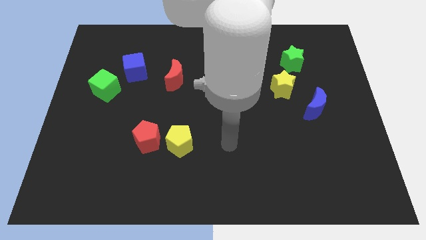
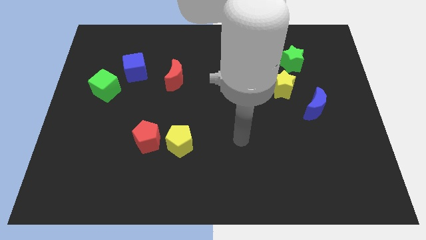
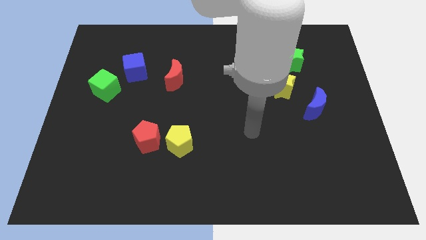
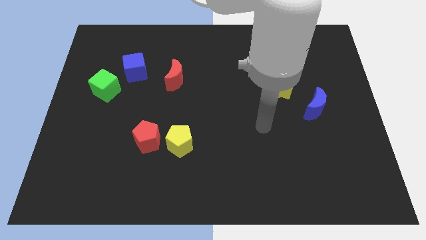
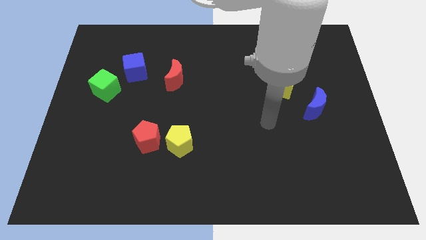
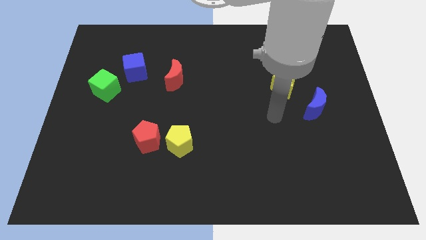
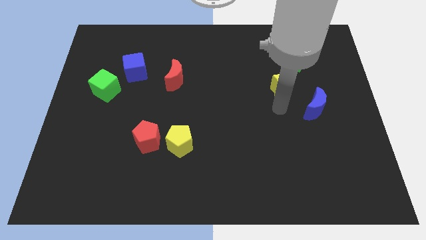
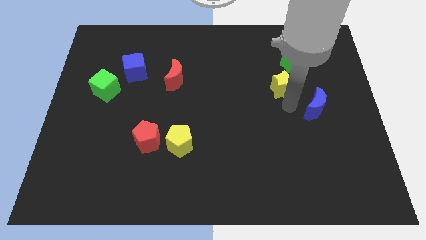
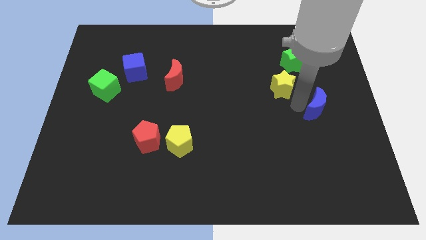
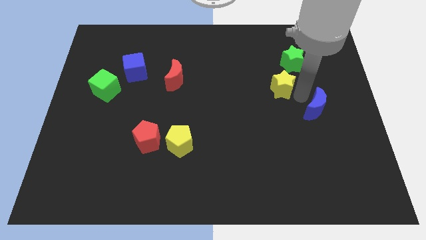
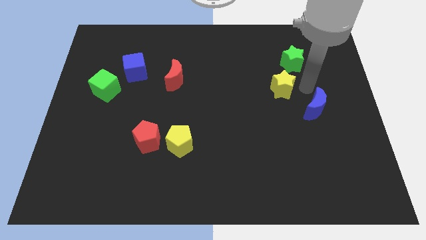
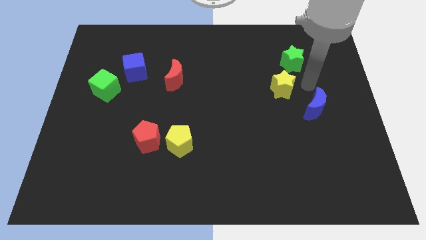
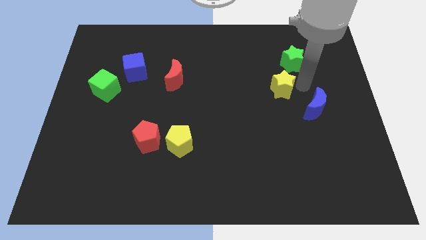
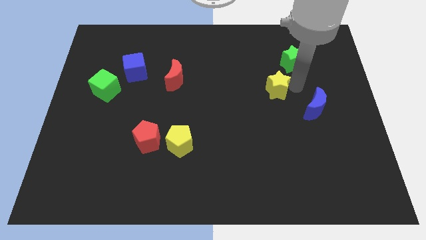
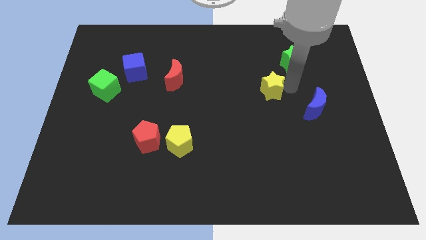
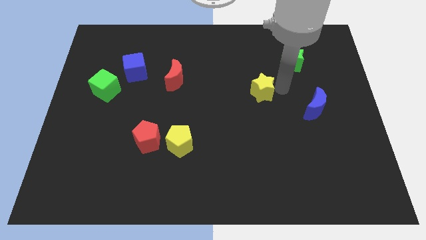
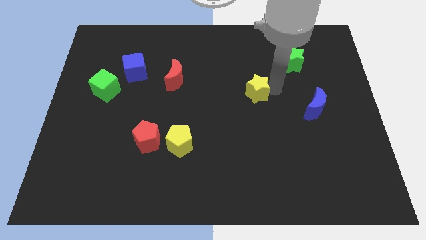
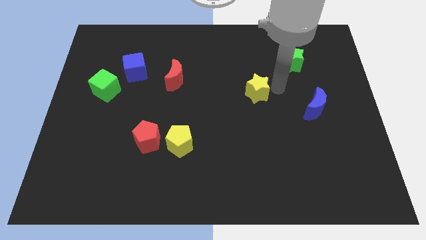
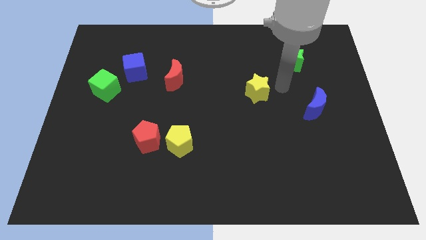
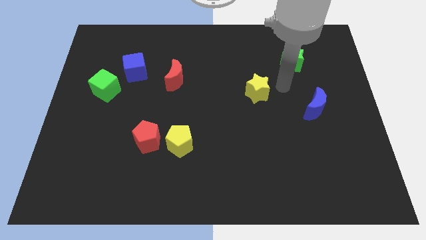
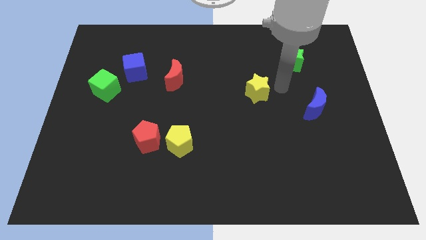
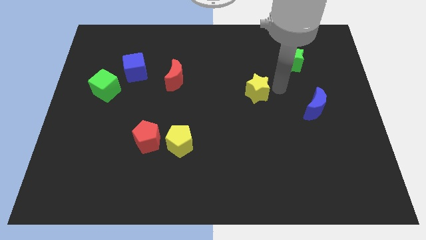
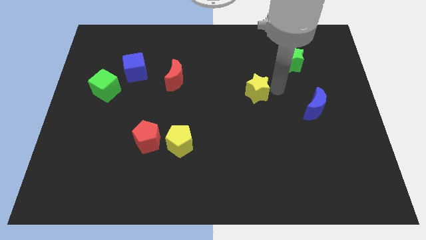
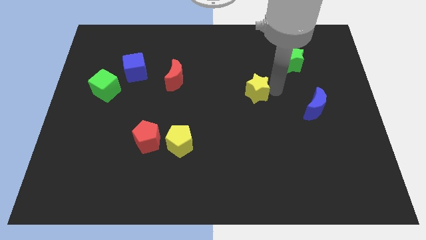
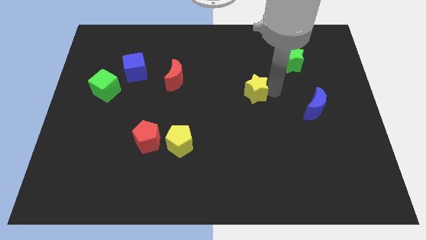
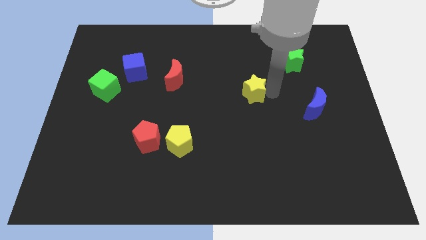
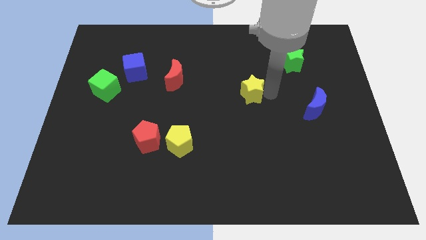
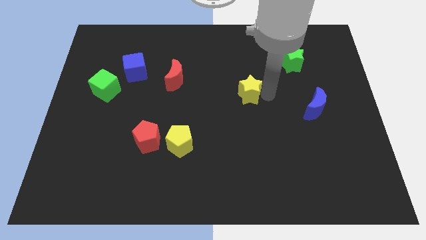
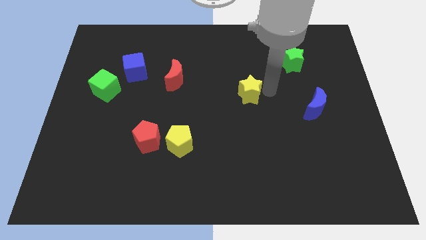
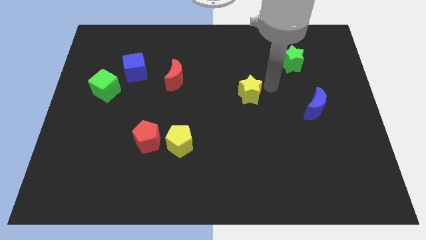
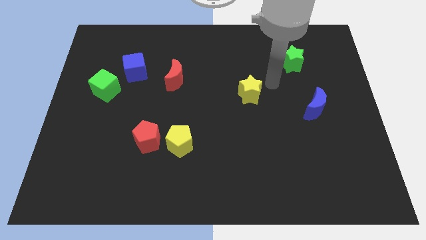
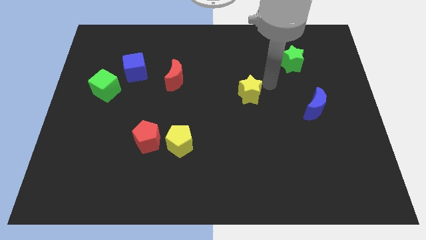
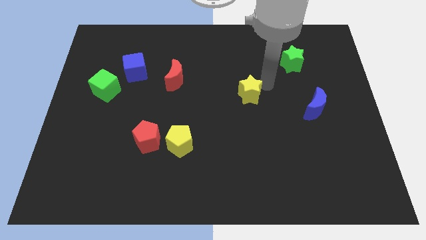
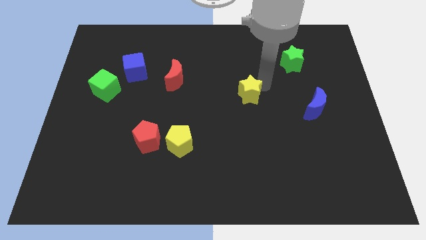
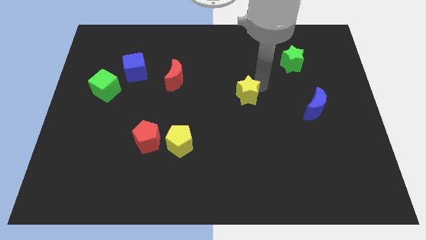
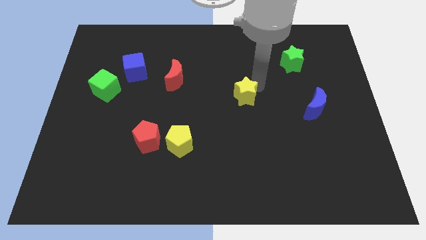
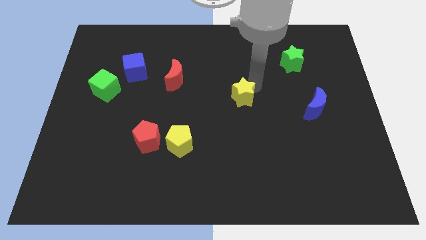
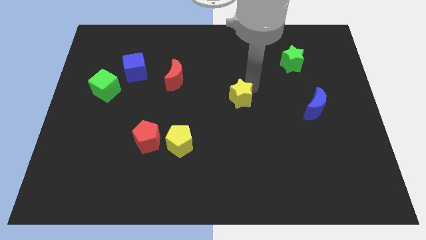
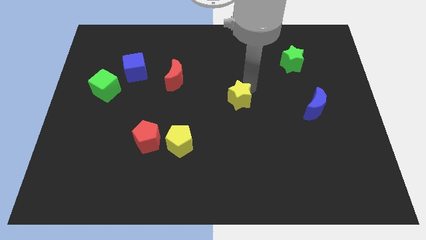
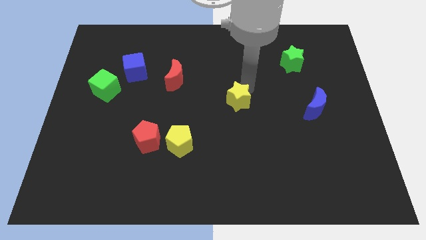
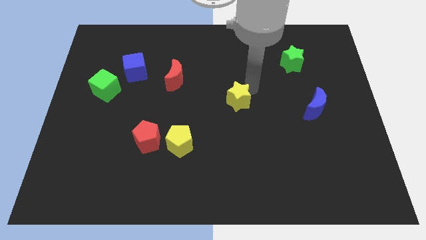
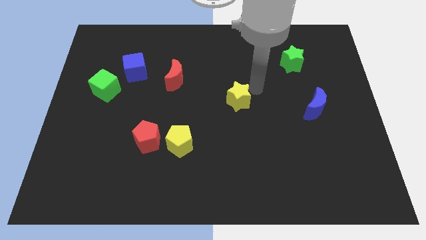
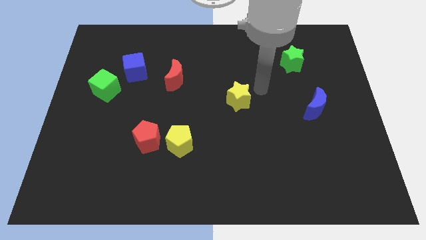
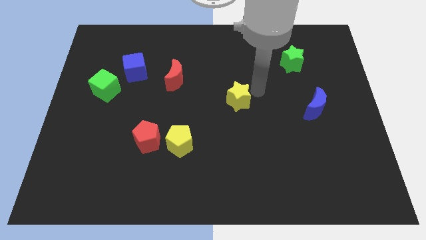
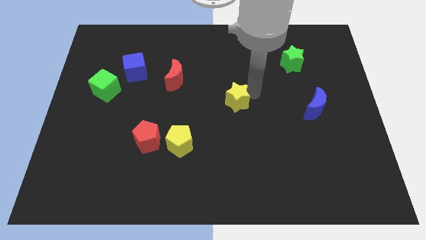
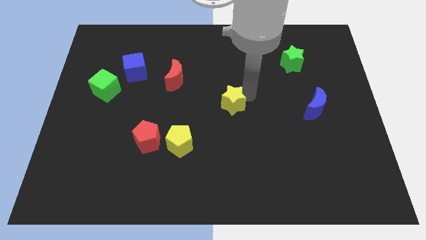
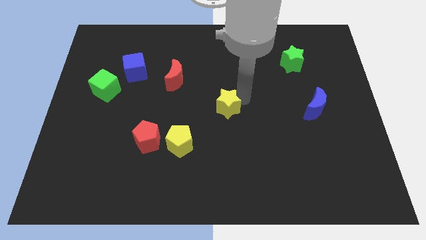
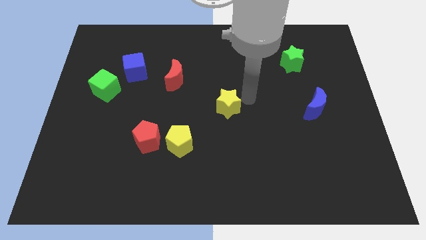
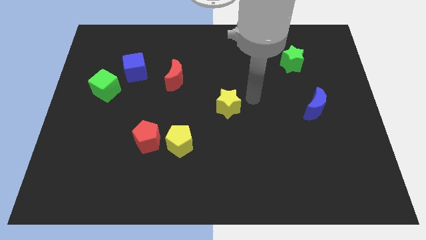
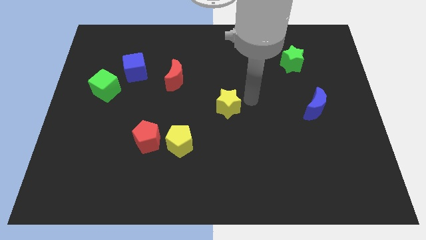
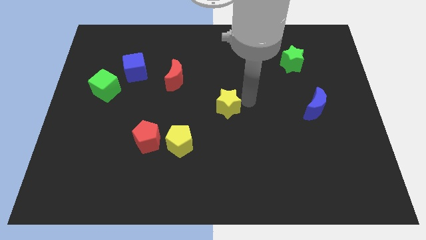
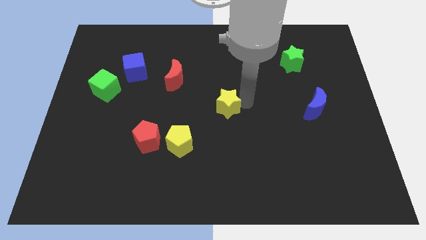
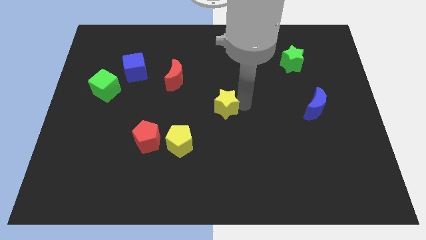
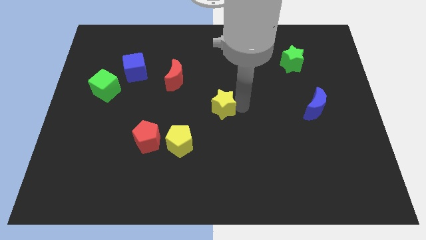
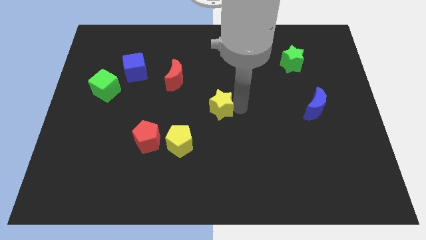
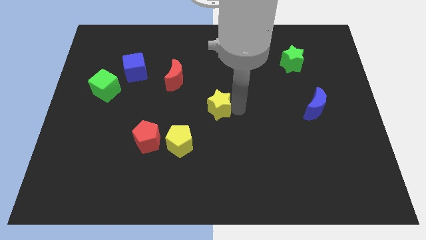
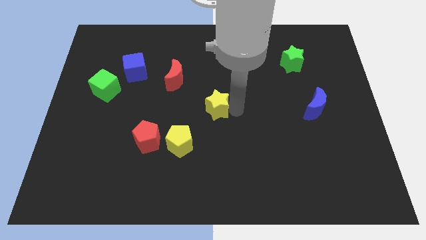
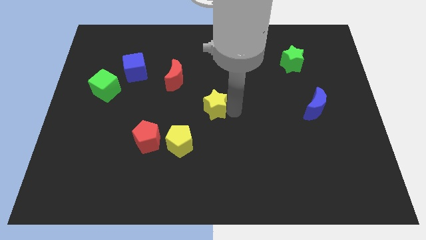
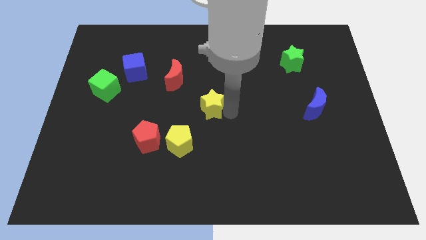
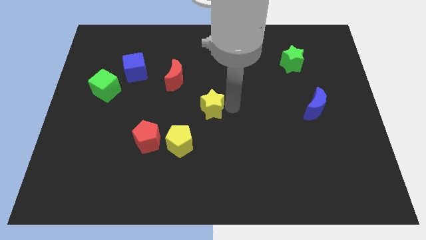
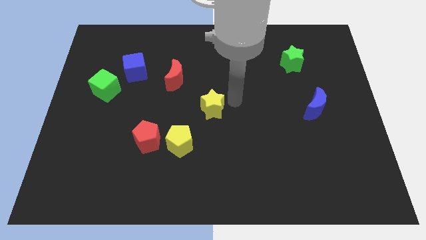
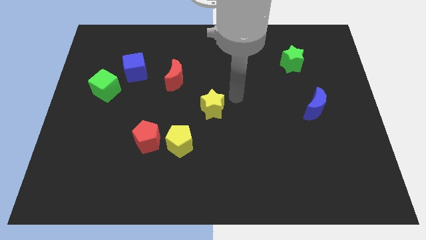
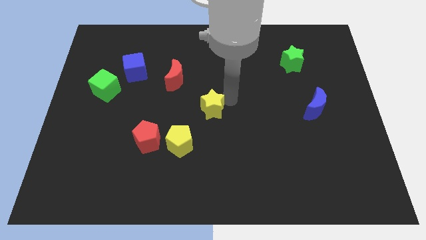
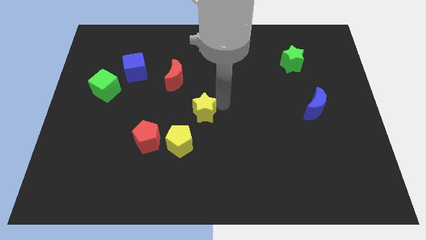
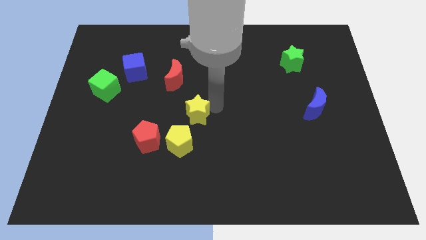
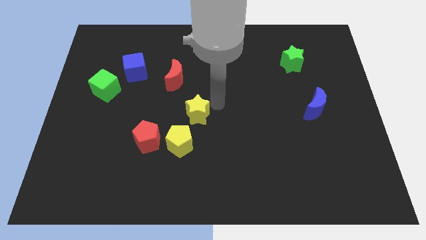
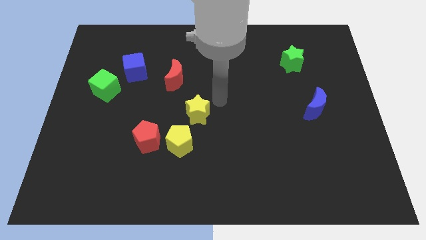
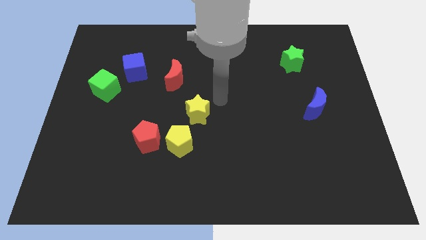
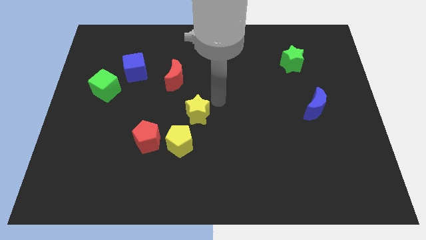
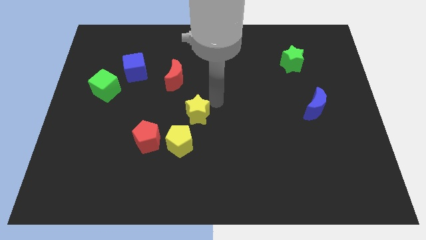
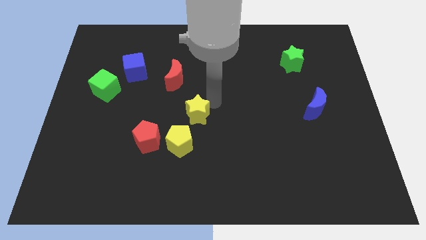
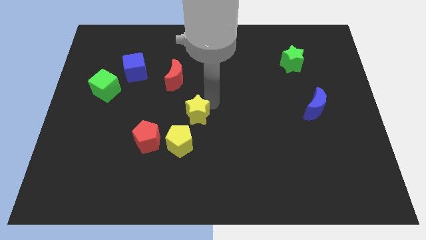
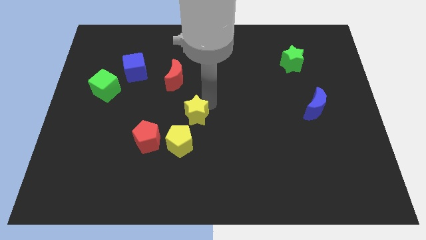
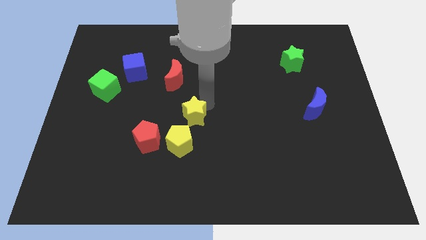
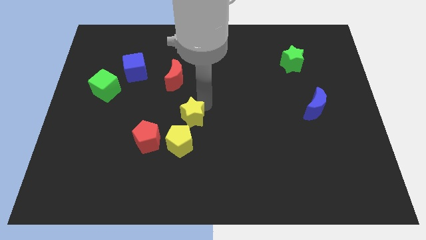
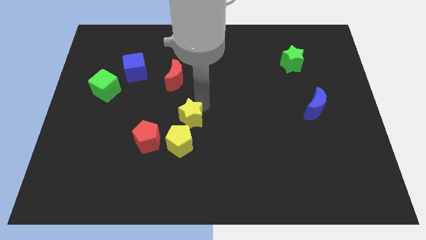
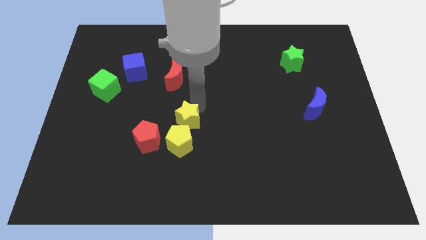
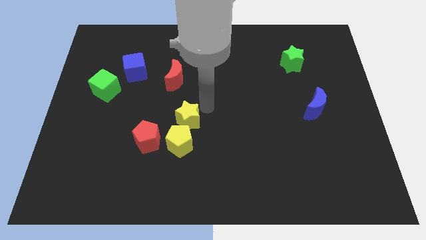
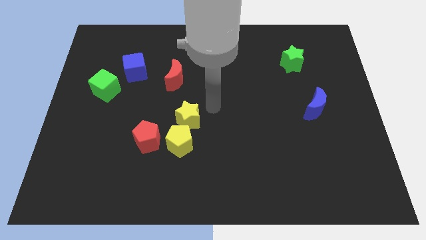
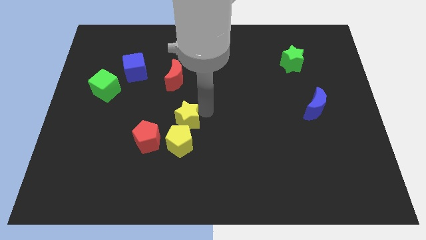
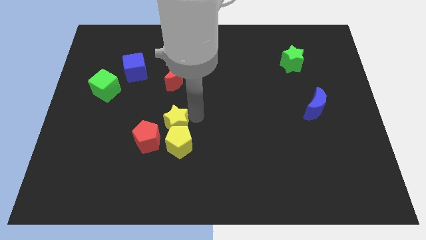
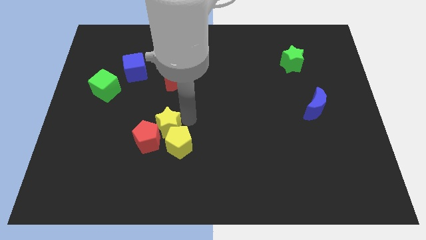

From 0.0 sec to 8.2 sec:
push the yellow star to the red pentagon
